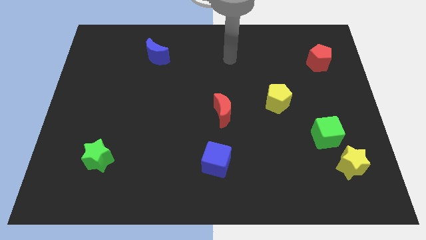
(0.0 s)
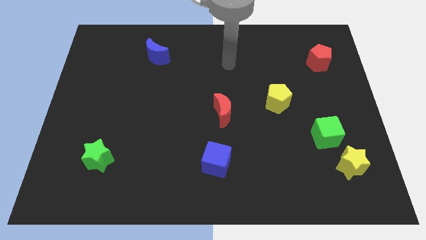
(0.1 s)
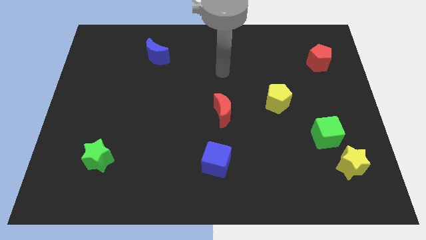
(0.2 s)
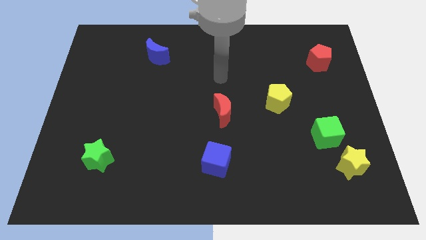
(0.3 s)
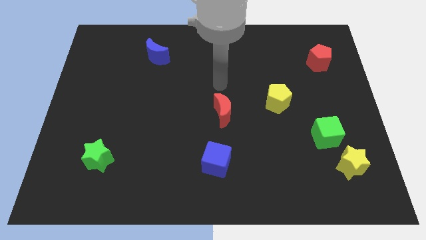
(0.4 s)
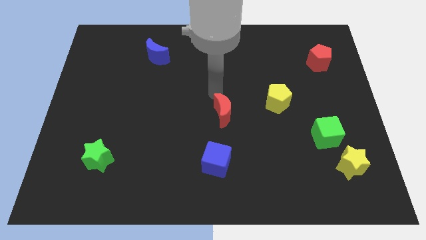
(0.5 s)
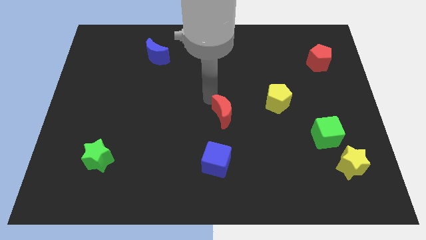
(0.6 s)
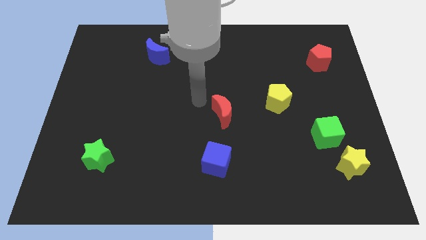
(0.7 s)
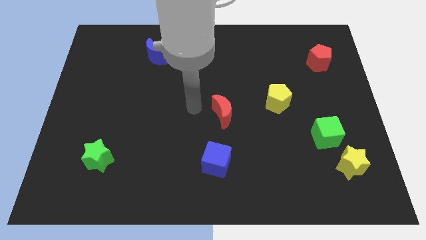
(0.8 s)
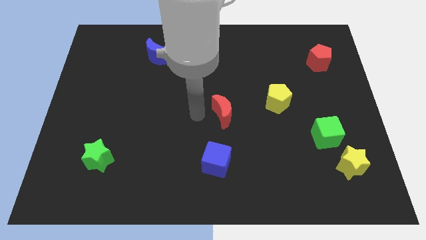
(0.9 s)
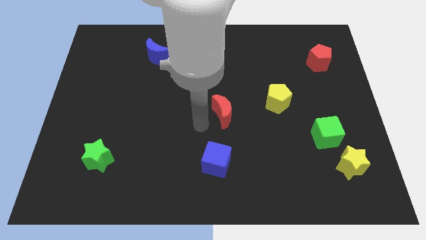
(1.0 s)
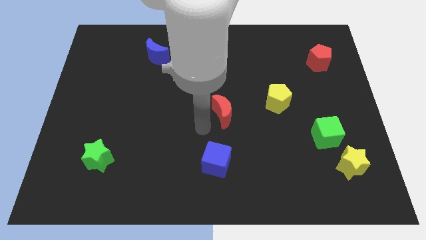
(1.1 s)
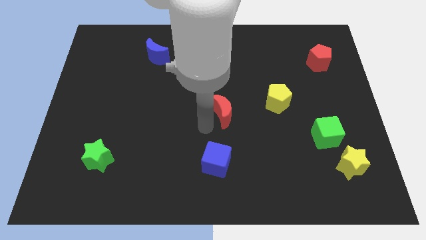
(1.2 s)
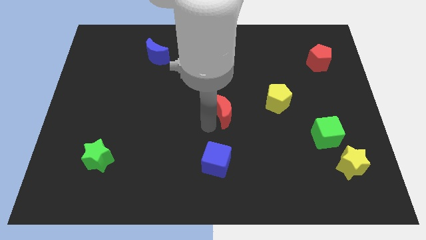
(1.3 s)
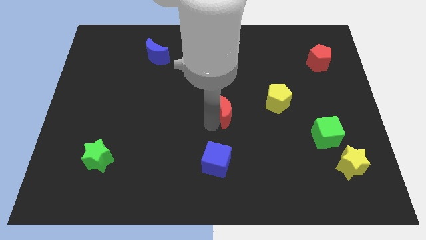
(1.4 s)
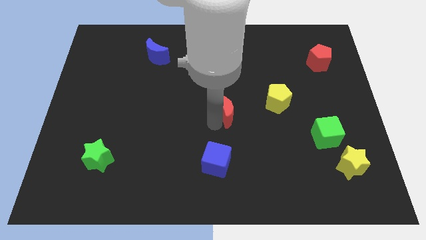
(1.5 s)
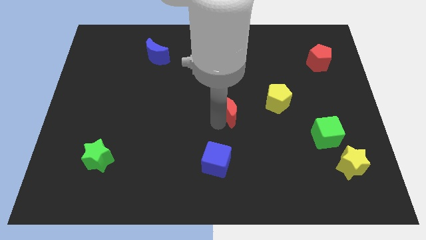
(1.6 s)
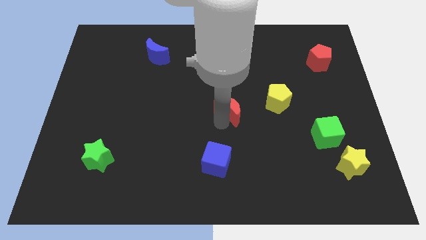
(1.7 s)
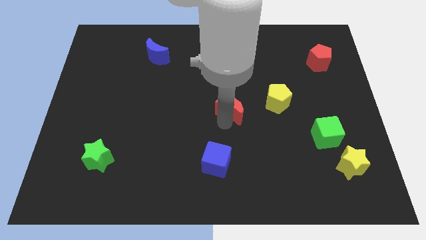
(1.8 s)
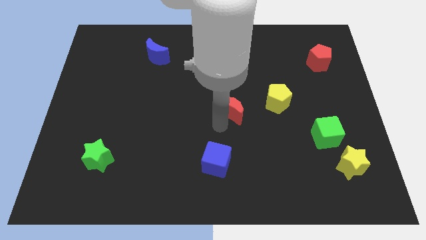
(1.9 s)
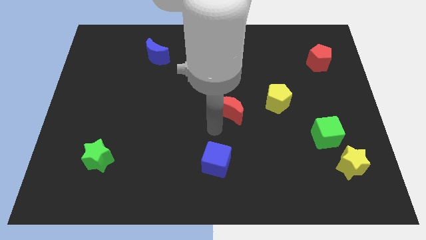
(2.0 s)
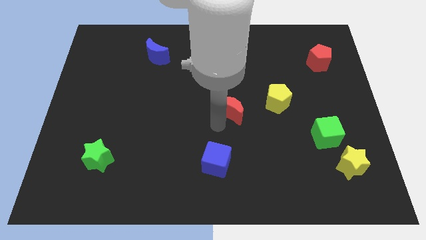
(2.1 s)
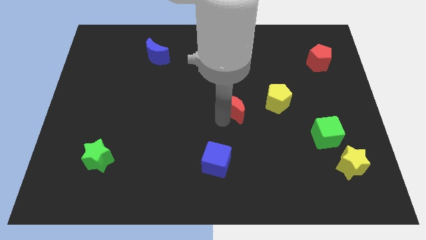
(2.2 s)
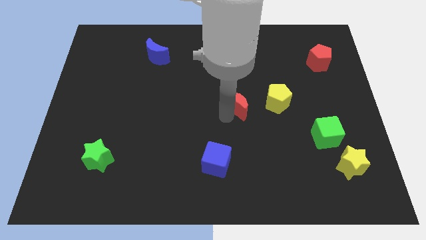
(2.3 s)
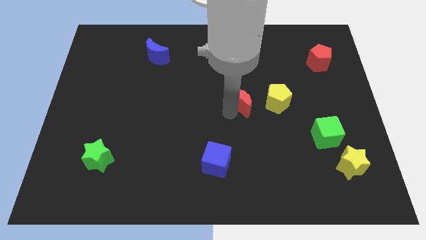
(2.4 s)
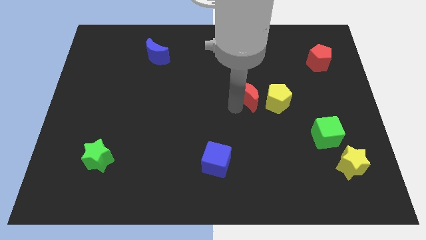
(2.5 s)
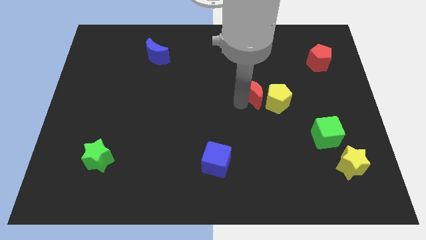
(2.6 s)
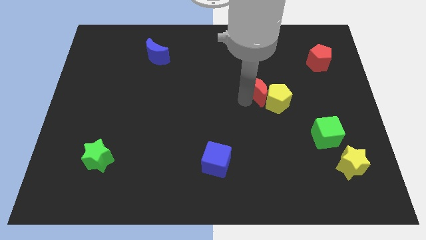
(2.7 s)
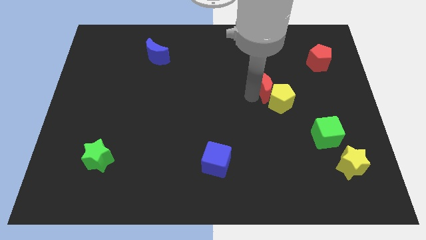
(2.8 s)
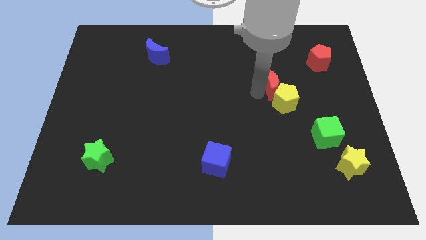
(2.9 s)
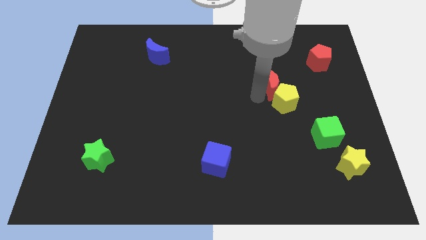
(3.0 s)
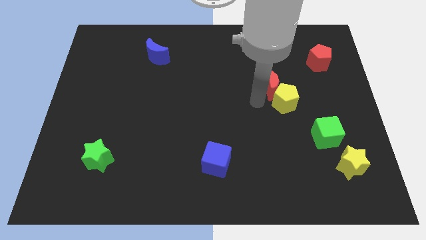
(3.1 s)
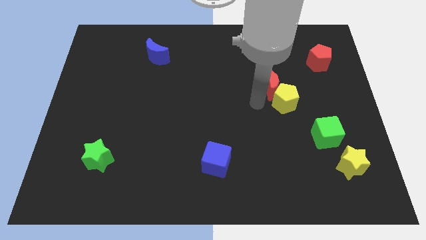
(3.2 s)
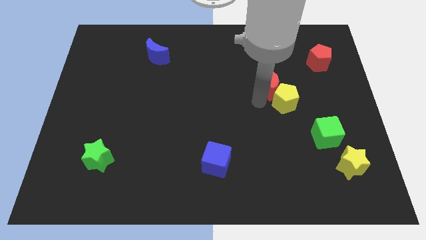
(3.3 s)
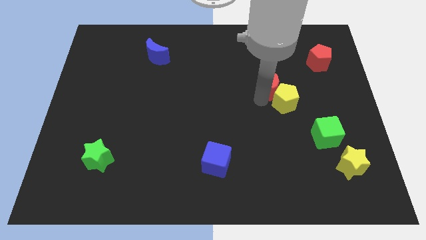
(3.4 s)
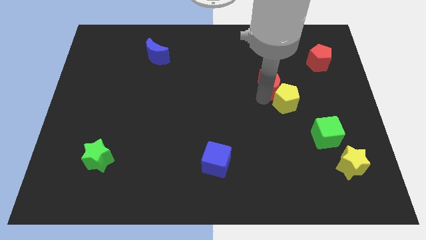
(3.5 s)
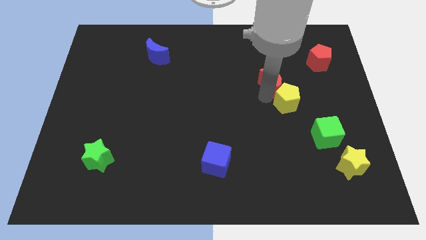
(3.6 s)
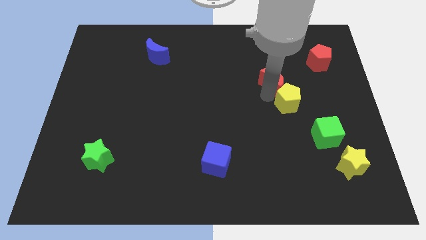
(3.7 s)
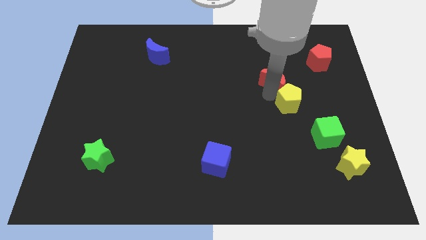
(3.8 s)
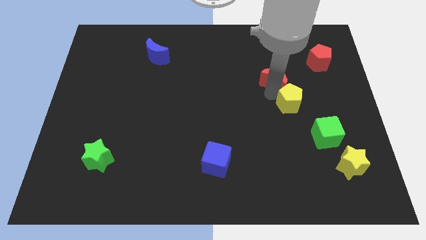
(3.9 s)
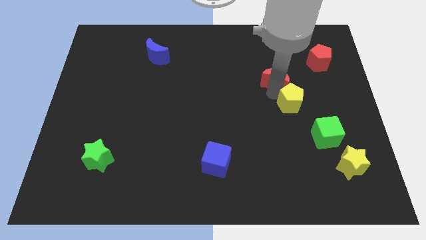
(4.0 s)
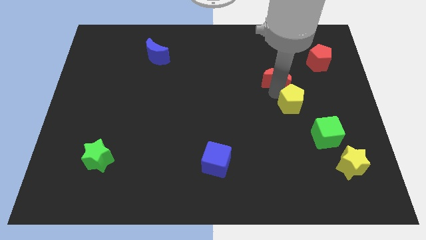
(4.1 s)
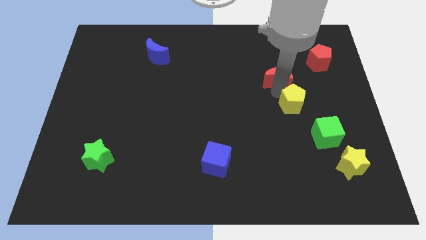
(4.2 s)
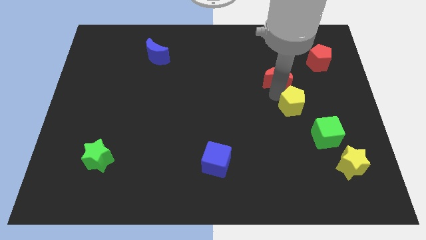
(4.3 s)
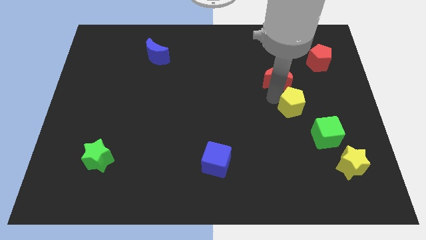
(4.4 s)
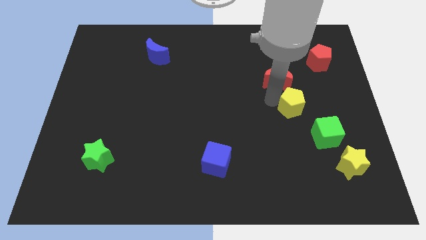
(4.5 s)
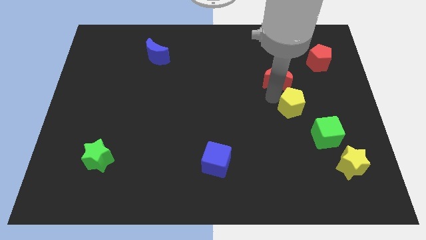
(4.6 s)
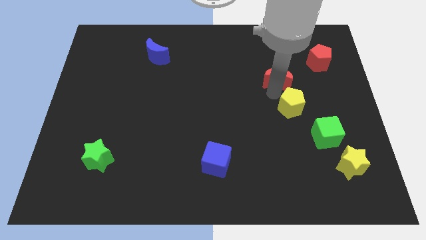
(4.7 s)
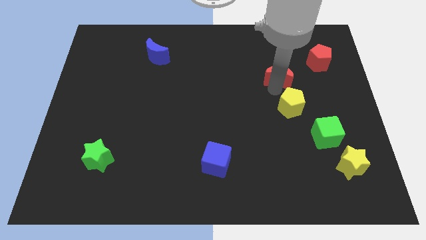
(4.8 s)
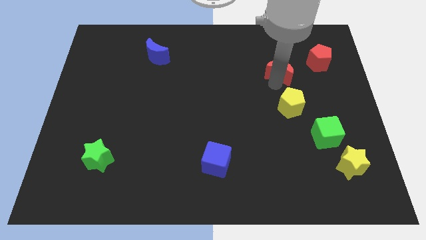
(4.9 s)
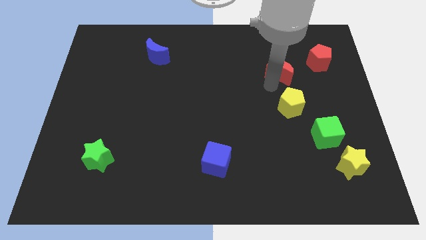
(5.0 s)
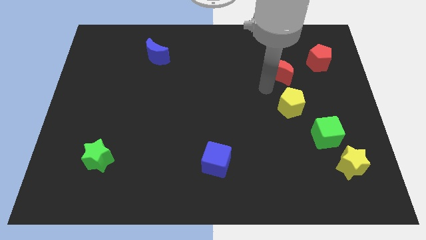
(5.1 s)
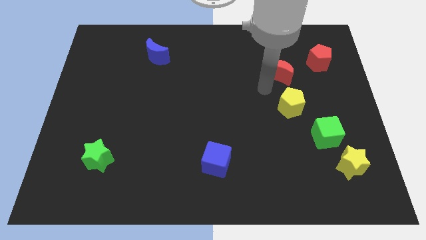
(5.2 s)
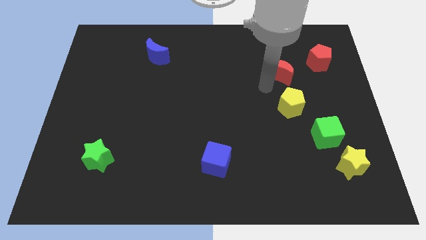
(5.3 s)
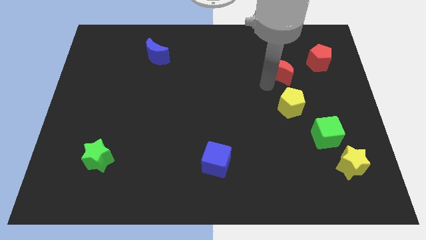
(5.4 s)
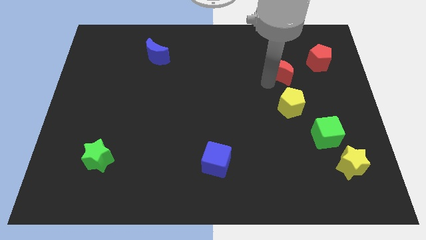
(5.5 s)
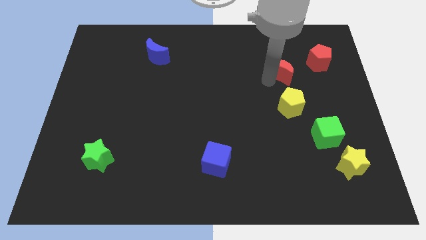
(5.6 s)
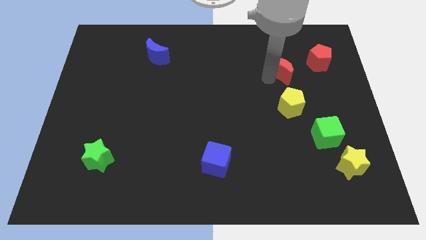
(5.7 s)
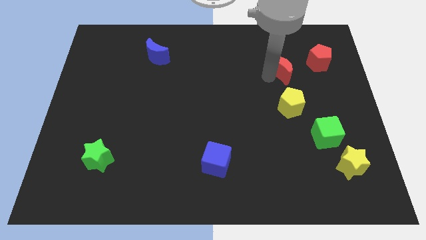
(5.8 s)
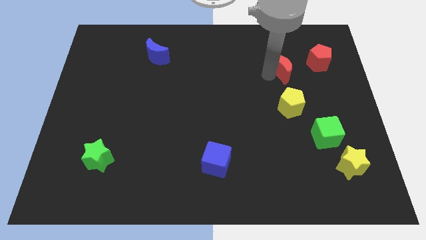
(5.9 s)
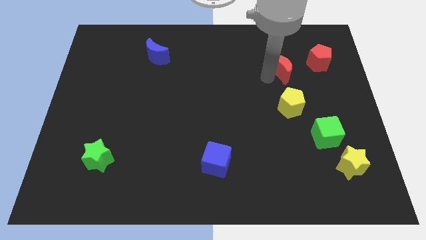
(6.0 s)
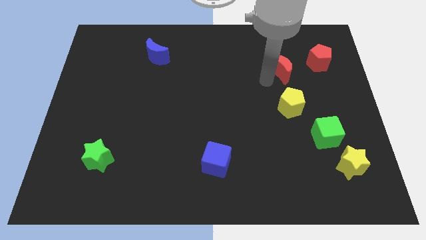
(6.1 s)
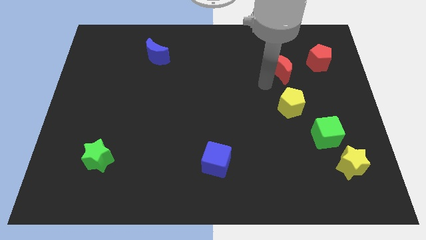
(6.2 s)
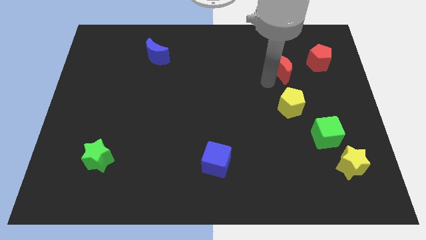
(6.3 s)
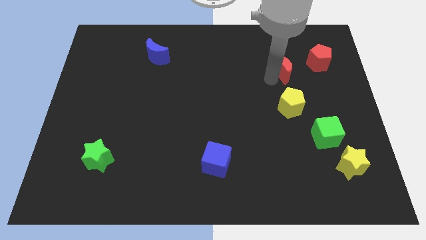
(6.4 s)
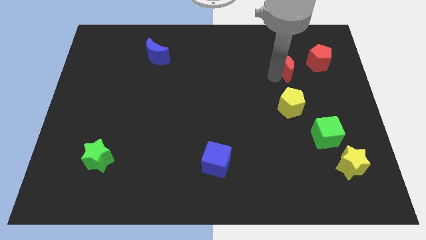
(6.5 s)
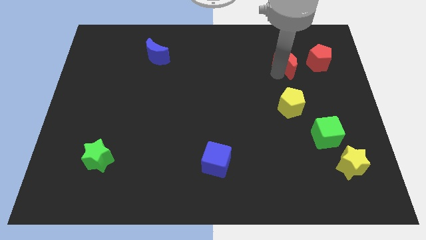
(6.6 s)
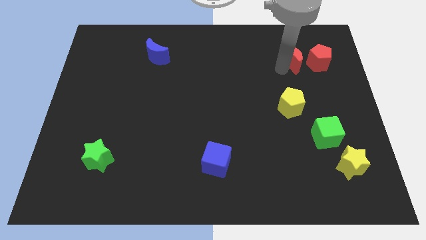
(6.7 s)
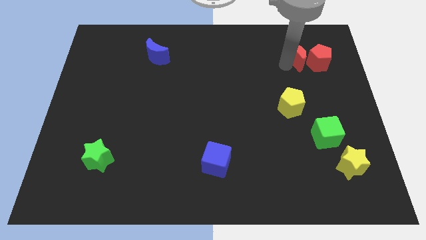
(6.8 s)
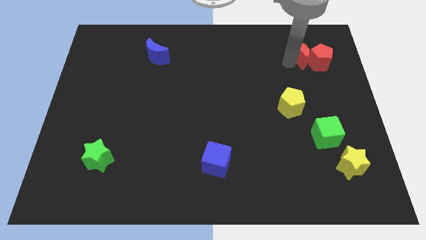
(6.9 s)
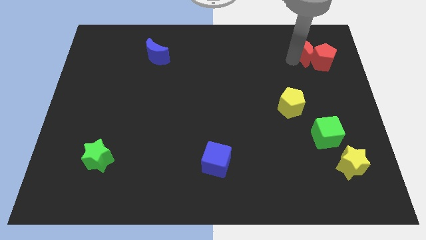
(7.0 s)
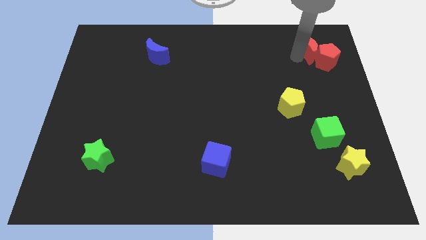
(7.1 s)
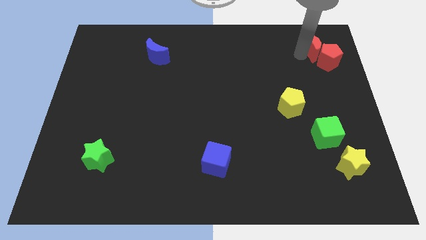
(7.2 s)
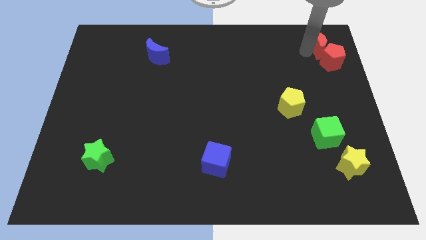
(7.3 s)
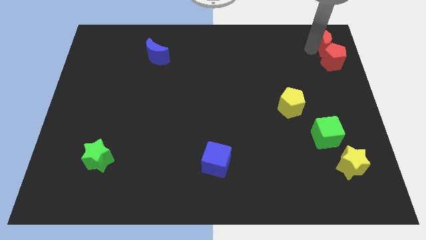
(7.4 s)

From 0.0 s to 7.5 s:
slide the red moon to the top right of the board

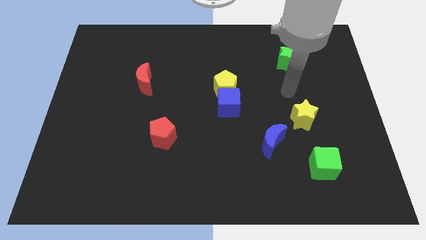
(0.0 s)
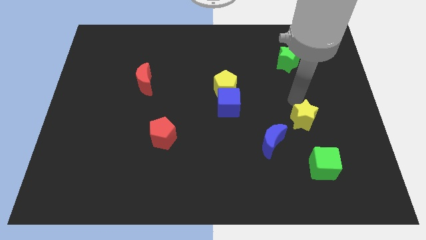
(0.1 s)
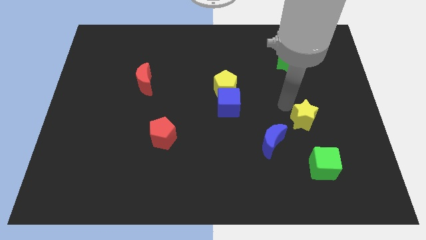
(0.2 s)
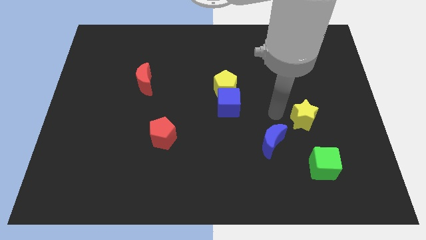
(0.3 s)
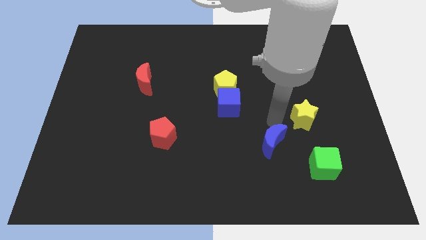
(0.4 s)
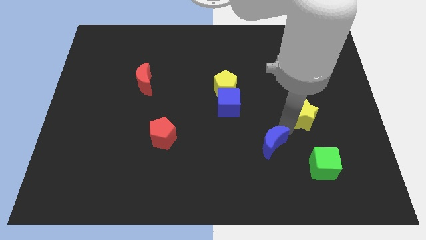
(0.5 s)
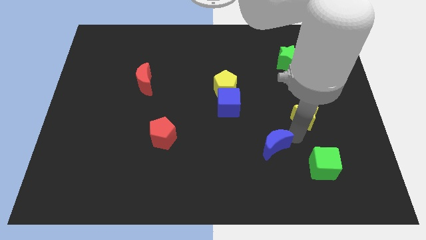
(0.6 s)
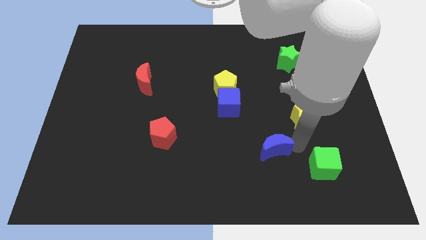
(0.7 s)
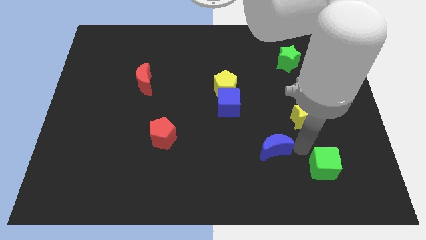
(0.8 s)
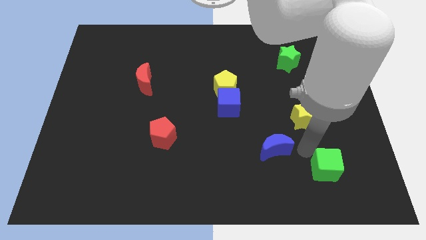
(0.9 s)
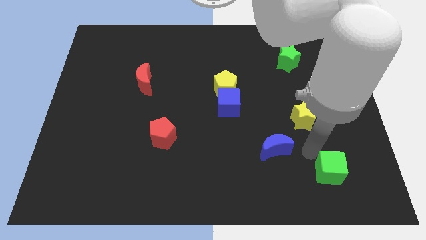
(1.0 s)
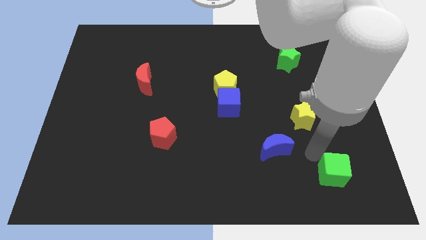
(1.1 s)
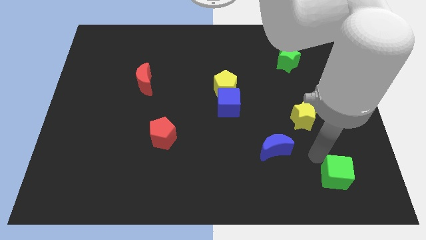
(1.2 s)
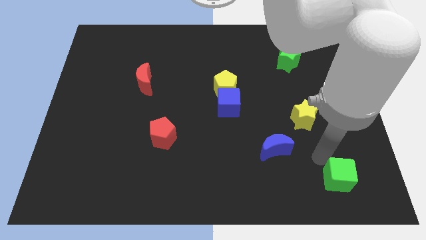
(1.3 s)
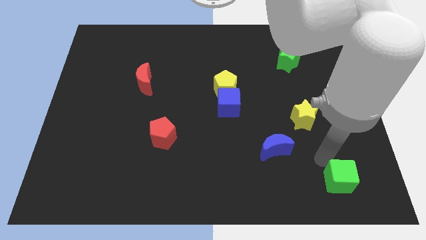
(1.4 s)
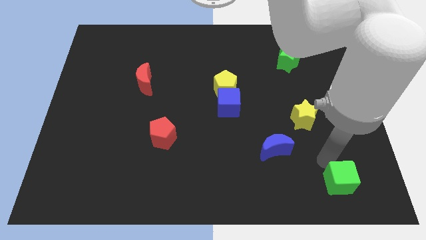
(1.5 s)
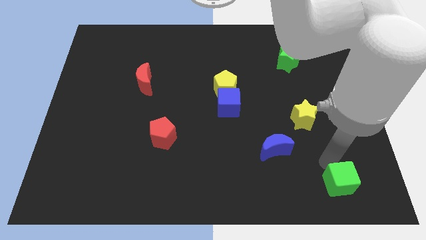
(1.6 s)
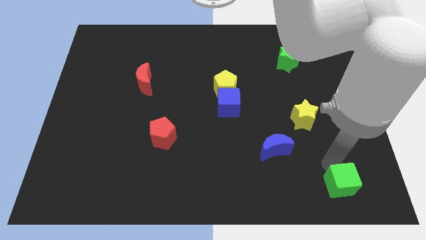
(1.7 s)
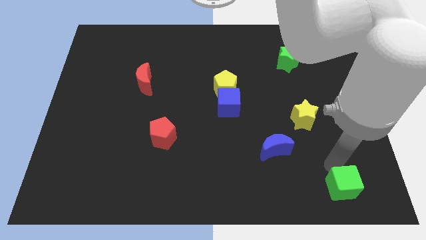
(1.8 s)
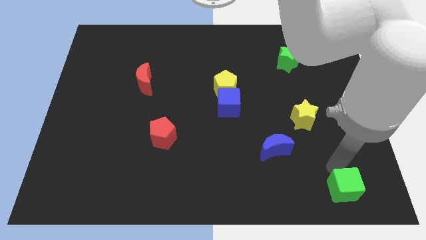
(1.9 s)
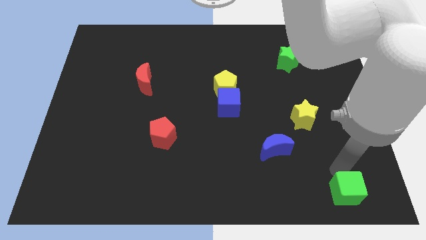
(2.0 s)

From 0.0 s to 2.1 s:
move the green cube to the bottom right corner
